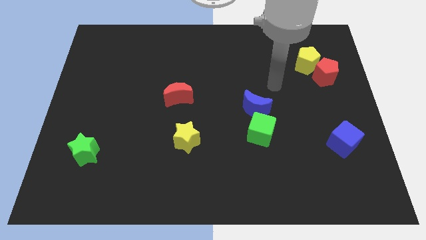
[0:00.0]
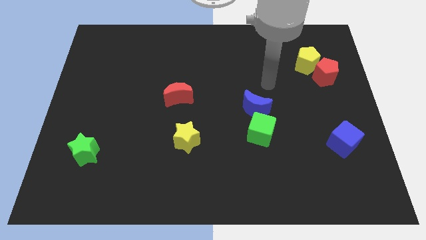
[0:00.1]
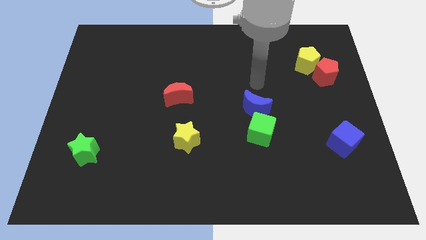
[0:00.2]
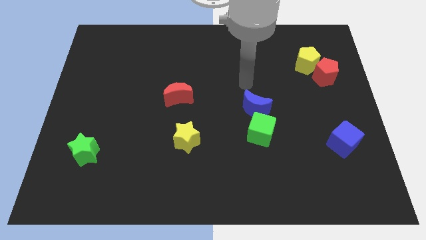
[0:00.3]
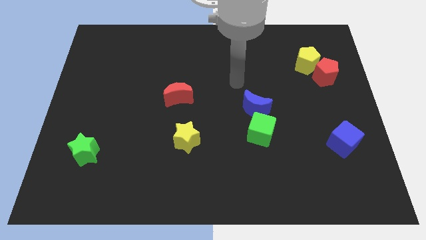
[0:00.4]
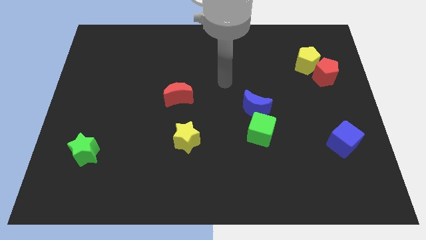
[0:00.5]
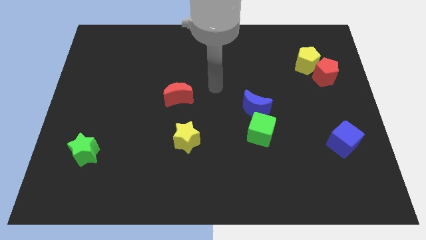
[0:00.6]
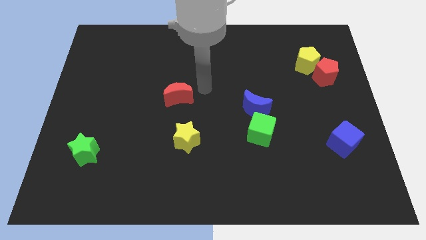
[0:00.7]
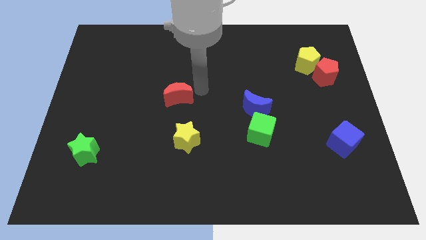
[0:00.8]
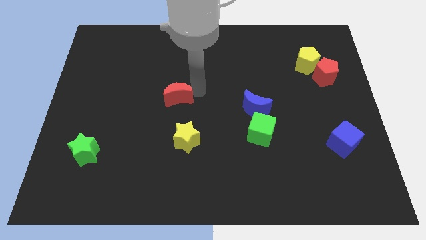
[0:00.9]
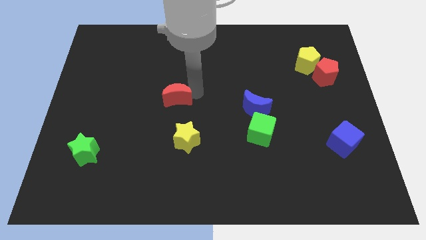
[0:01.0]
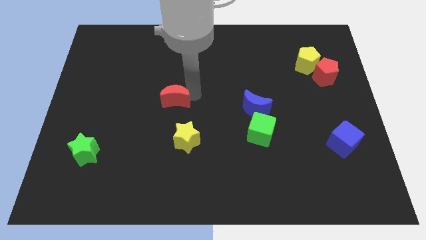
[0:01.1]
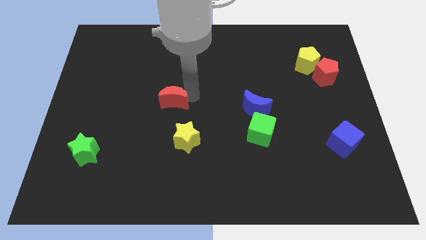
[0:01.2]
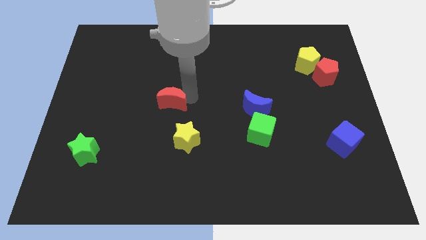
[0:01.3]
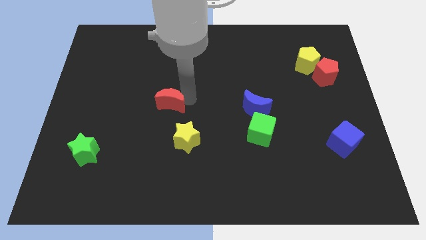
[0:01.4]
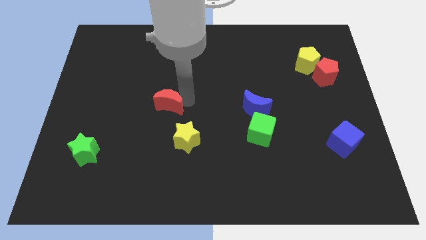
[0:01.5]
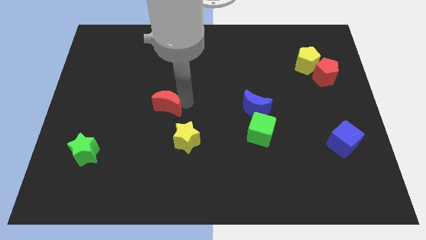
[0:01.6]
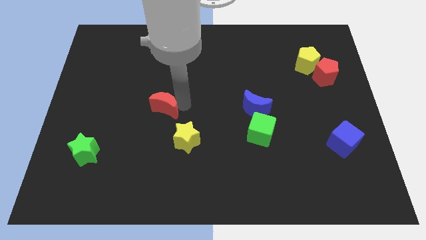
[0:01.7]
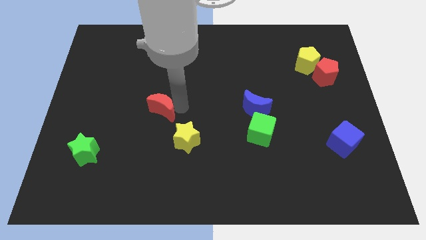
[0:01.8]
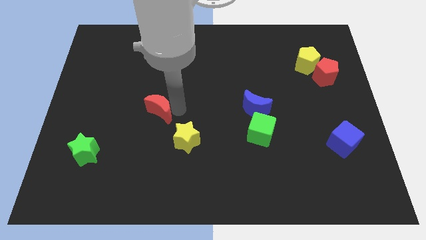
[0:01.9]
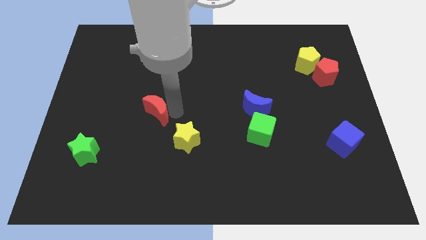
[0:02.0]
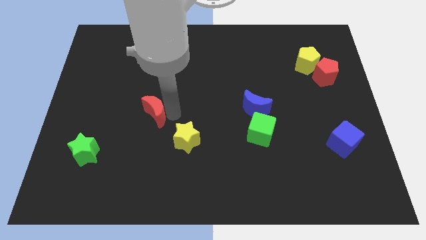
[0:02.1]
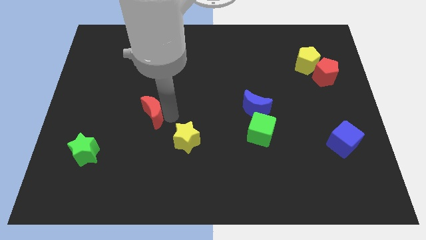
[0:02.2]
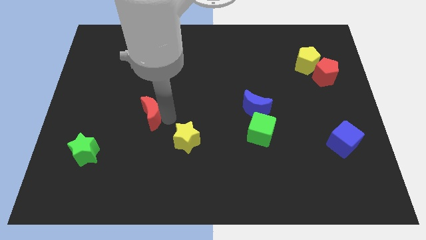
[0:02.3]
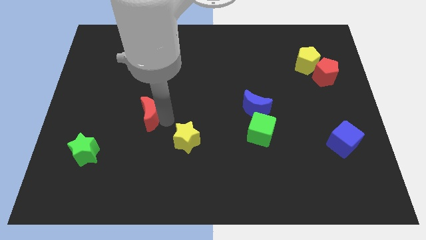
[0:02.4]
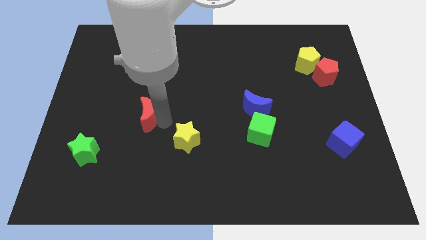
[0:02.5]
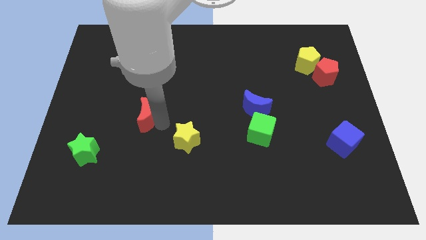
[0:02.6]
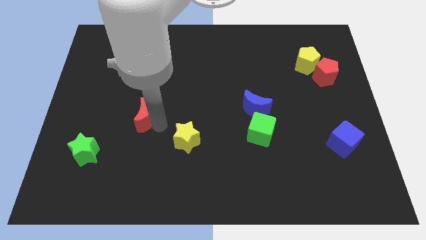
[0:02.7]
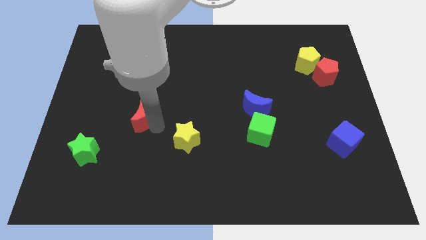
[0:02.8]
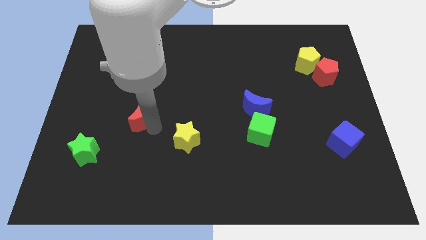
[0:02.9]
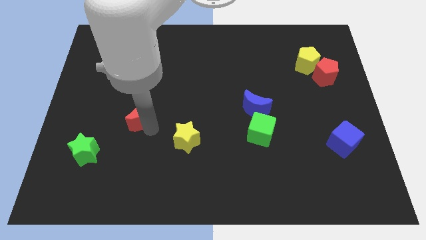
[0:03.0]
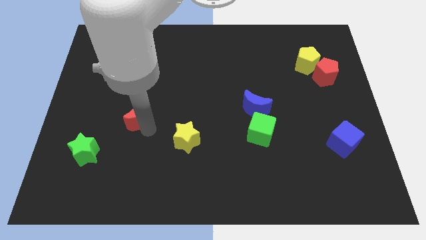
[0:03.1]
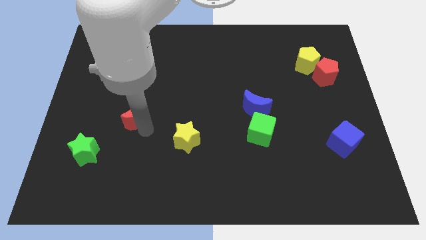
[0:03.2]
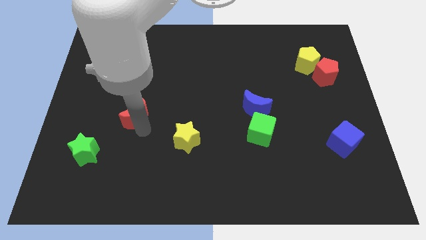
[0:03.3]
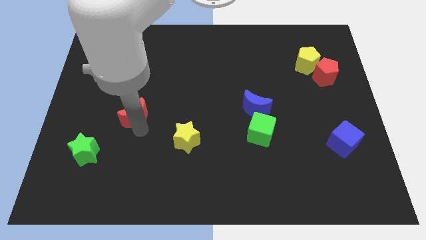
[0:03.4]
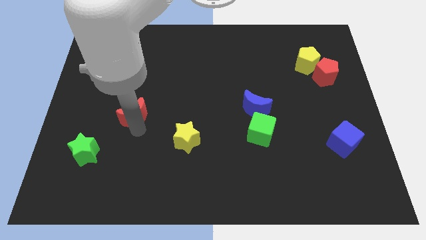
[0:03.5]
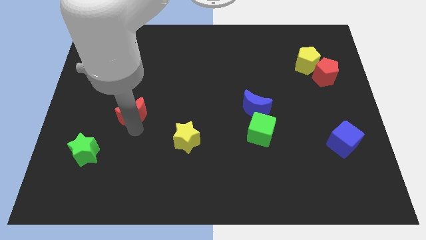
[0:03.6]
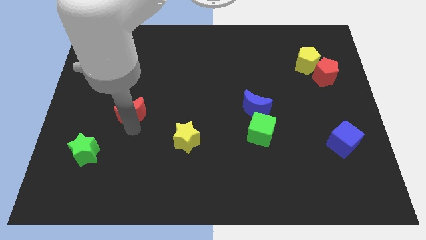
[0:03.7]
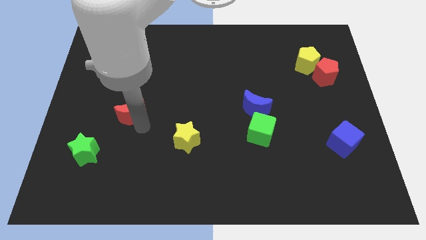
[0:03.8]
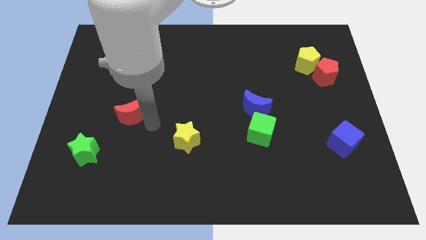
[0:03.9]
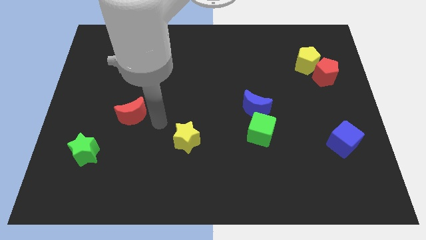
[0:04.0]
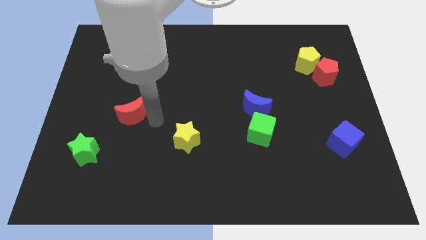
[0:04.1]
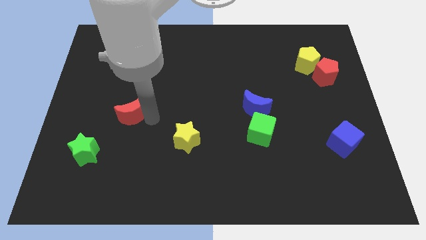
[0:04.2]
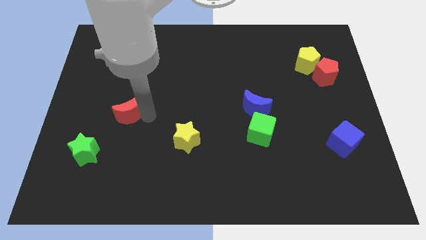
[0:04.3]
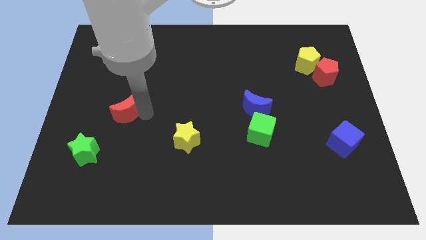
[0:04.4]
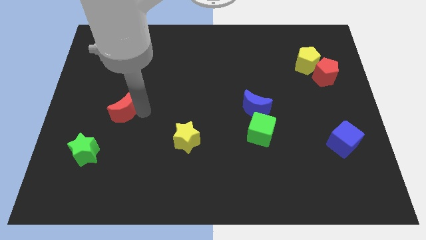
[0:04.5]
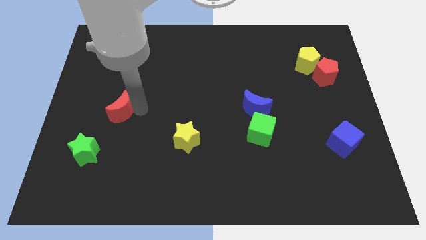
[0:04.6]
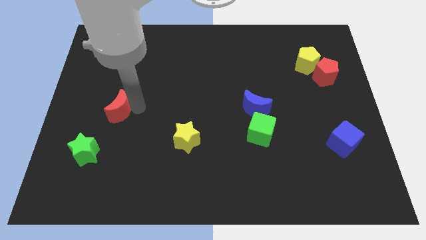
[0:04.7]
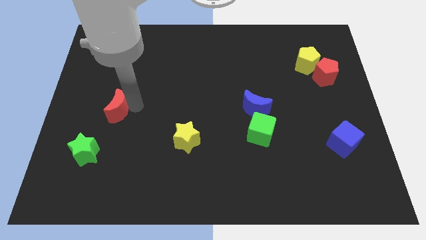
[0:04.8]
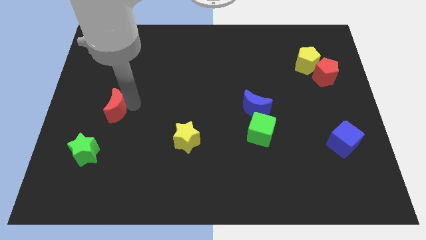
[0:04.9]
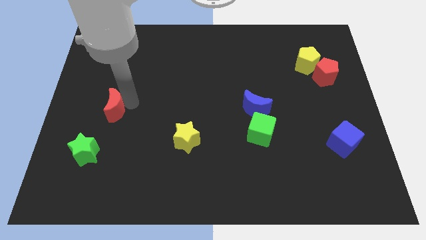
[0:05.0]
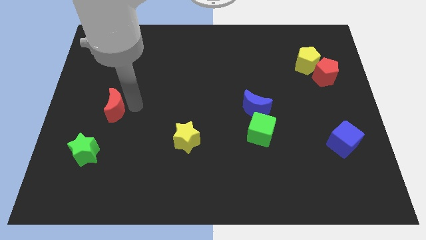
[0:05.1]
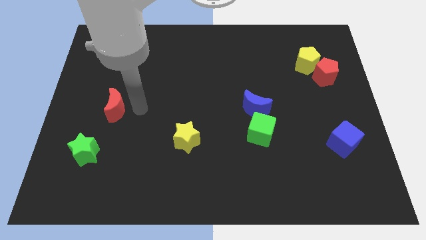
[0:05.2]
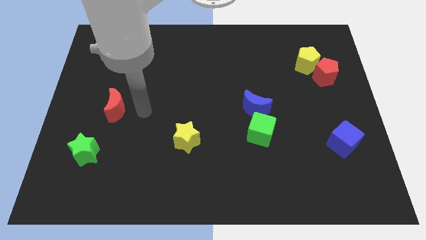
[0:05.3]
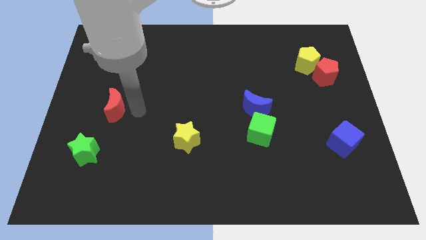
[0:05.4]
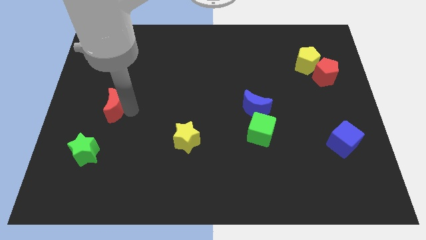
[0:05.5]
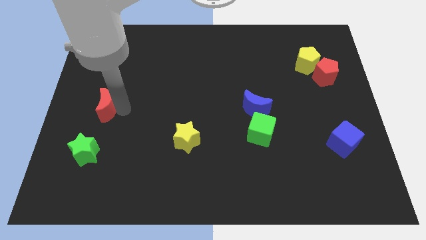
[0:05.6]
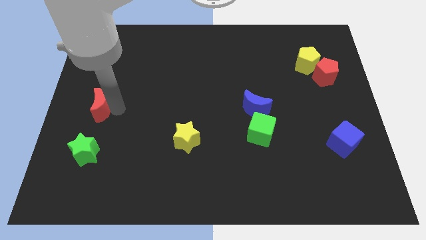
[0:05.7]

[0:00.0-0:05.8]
move the red moon to the center left

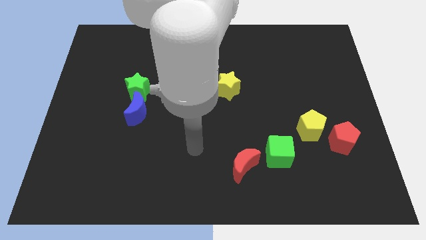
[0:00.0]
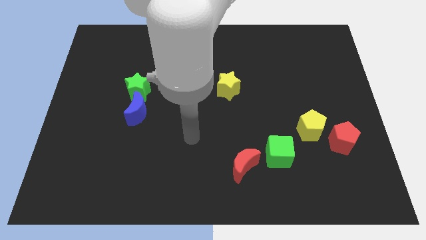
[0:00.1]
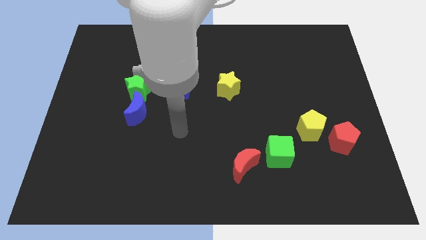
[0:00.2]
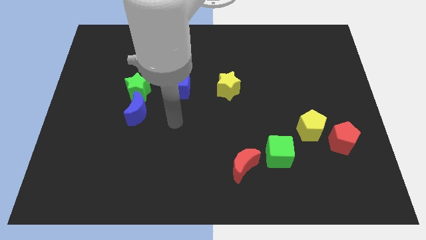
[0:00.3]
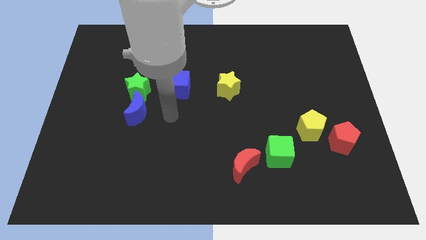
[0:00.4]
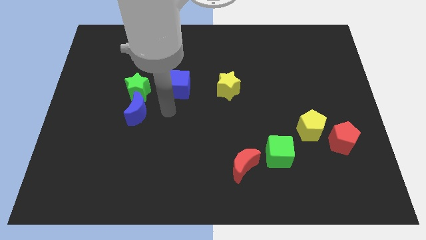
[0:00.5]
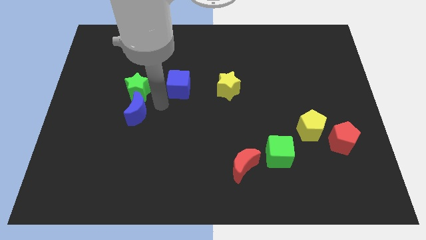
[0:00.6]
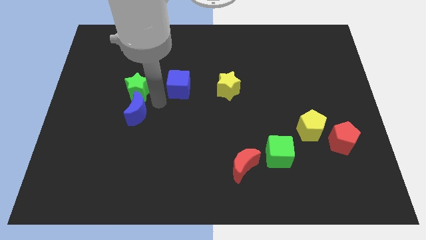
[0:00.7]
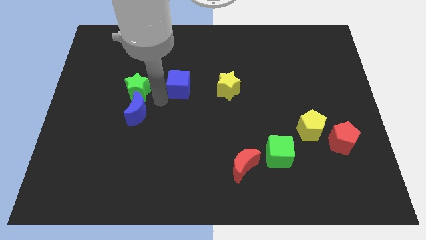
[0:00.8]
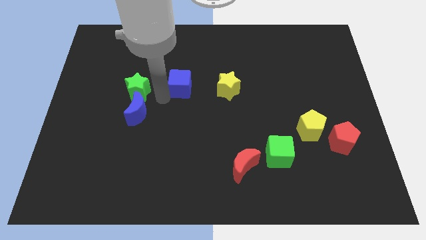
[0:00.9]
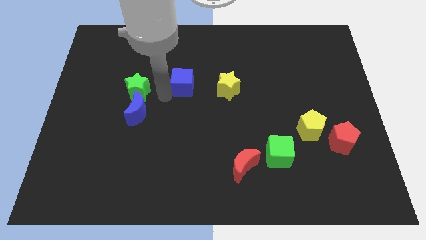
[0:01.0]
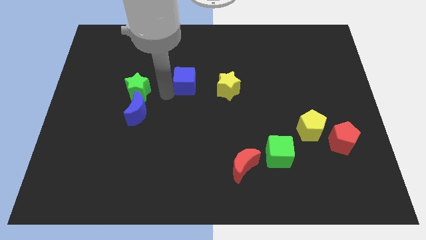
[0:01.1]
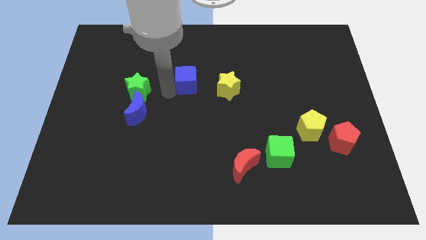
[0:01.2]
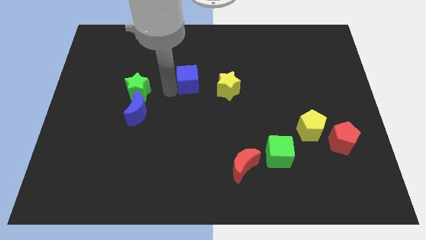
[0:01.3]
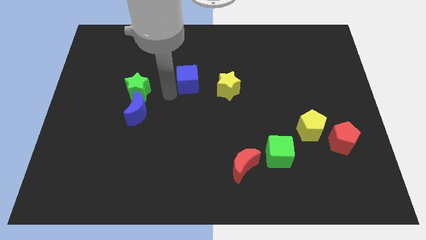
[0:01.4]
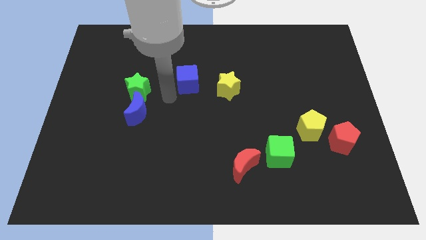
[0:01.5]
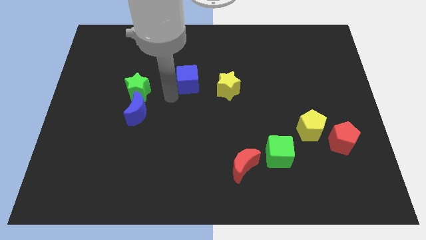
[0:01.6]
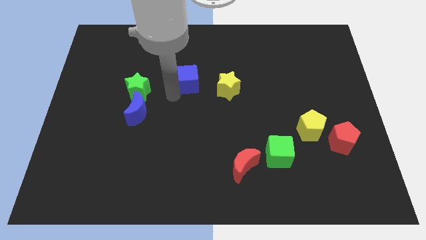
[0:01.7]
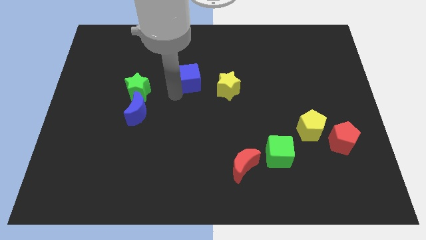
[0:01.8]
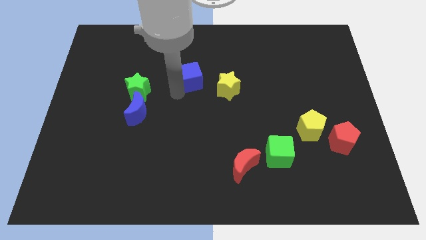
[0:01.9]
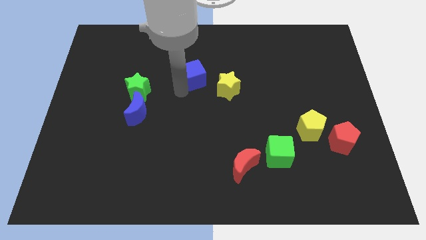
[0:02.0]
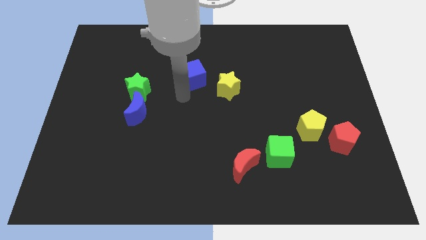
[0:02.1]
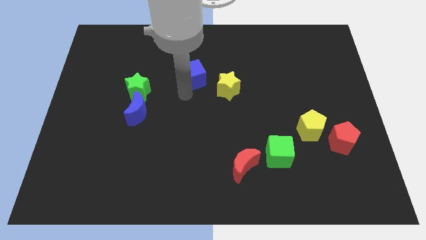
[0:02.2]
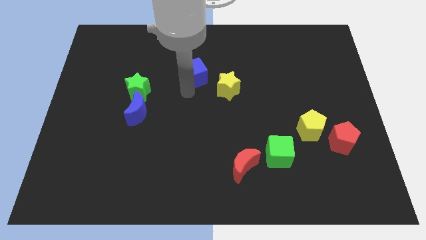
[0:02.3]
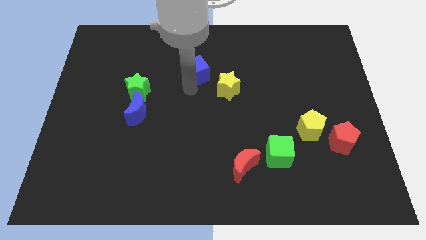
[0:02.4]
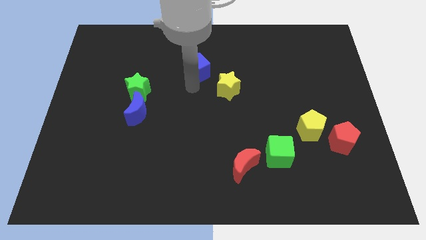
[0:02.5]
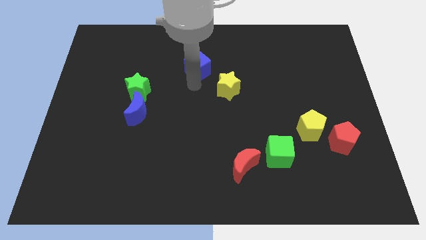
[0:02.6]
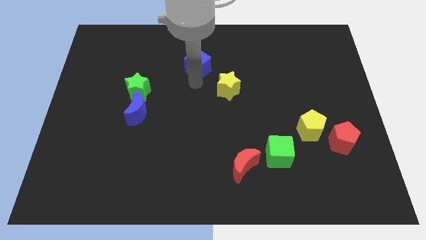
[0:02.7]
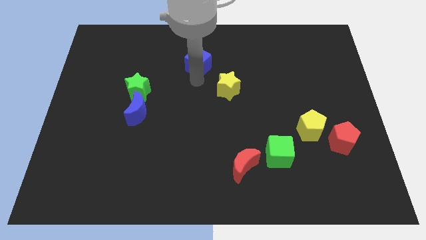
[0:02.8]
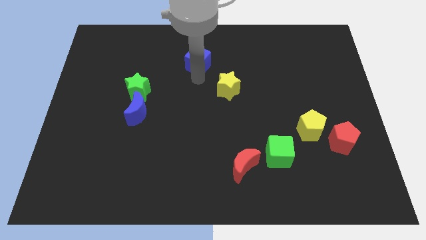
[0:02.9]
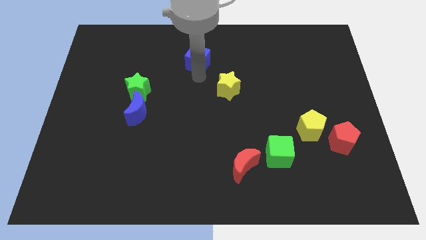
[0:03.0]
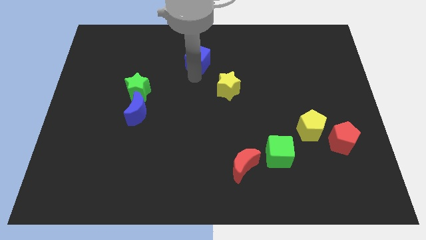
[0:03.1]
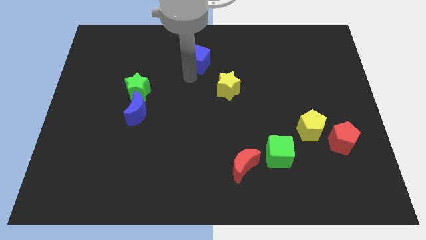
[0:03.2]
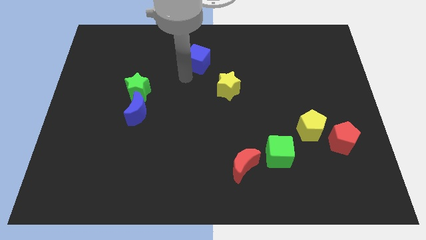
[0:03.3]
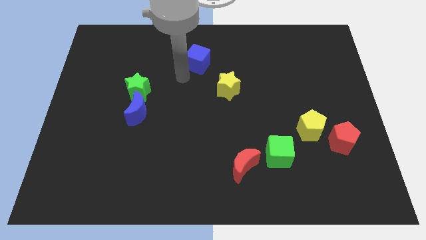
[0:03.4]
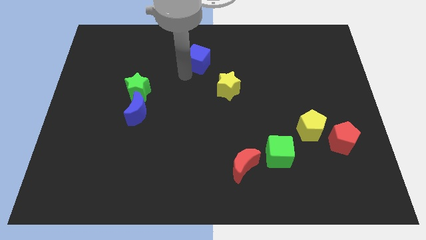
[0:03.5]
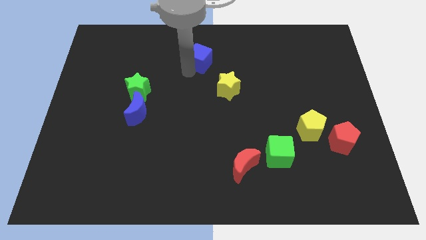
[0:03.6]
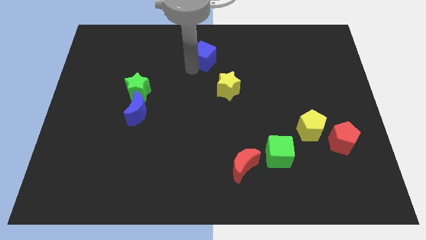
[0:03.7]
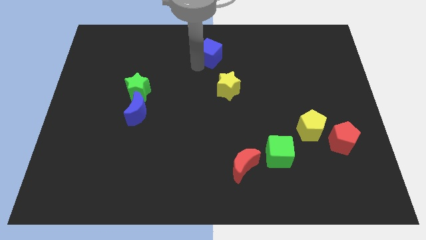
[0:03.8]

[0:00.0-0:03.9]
push the blue cube to the top side
